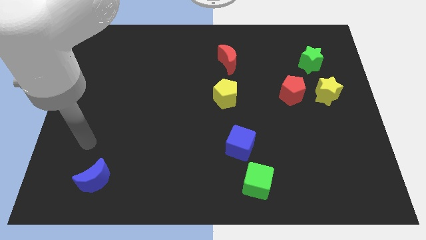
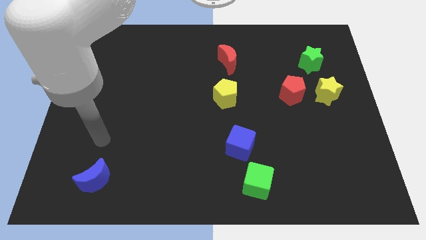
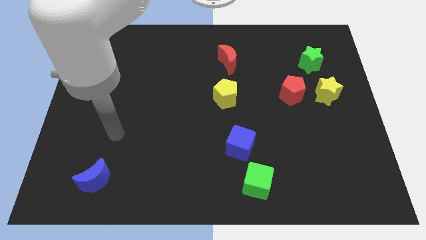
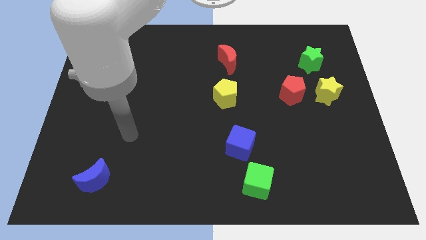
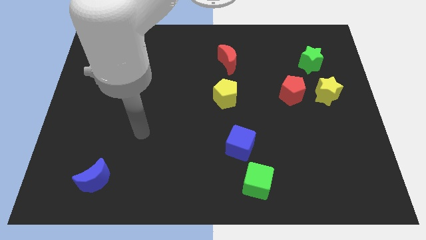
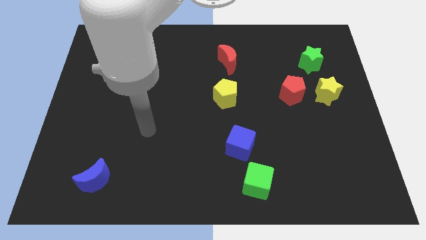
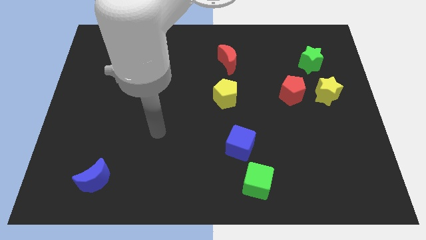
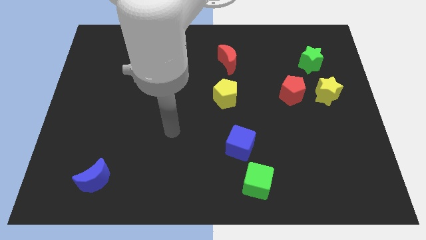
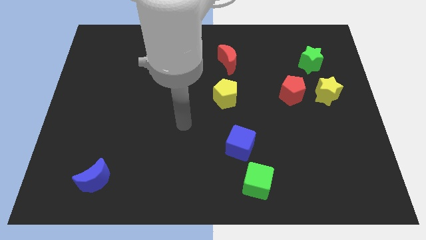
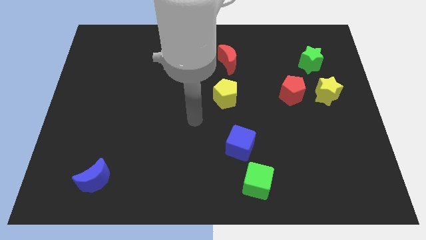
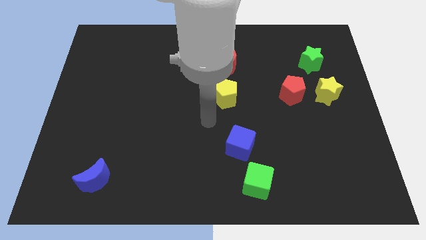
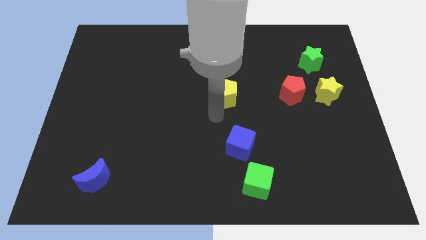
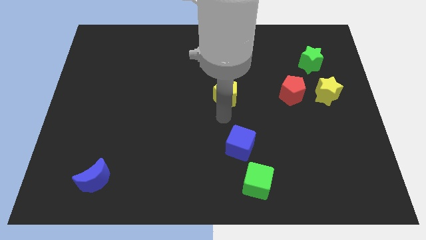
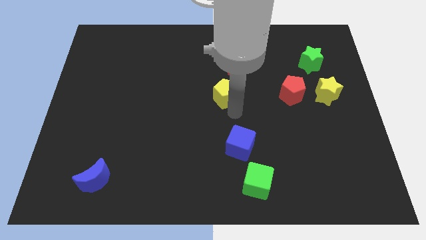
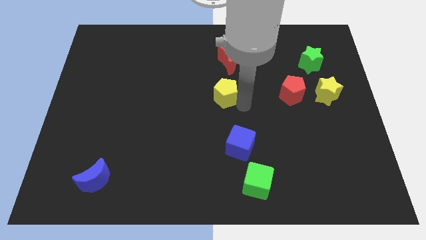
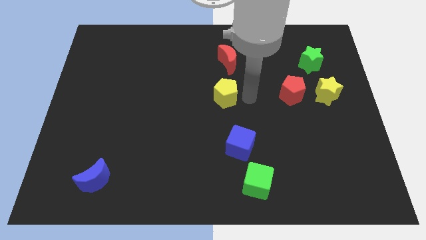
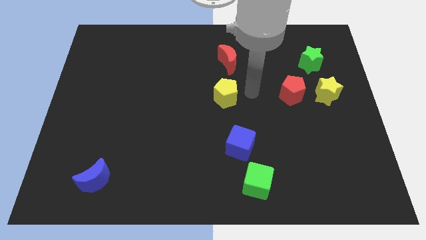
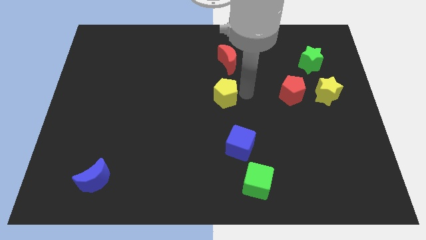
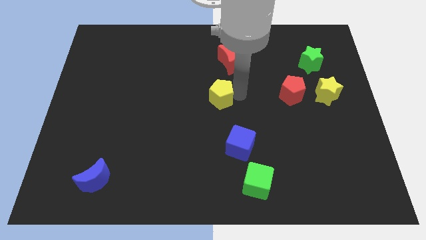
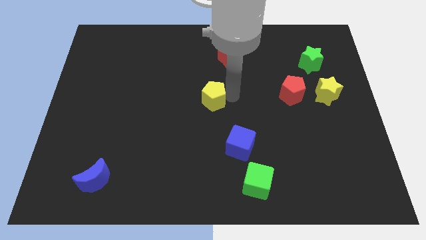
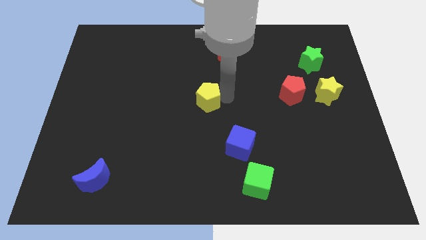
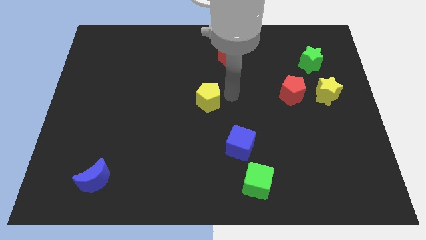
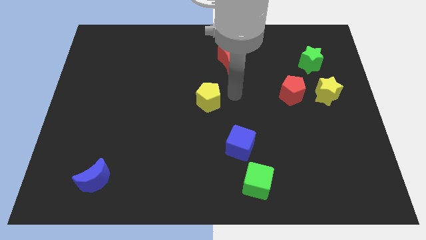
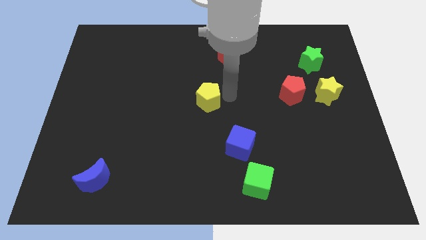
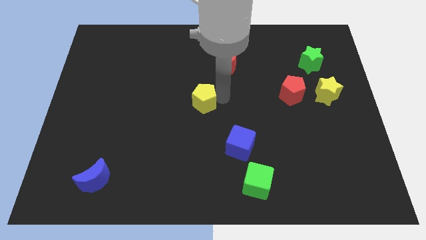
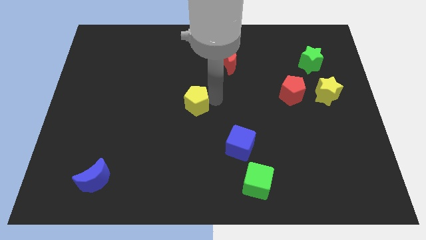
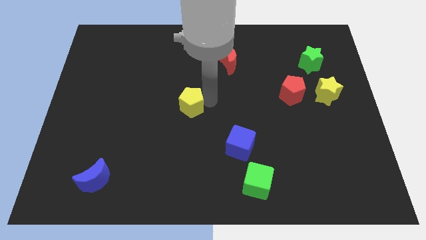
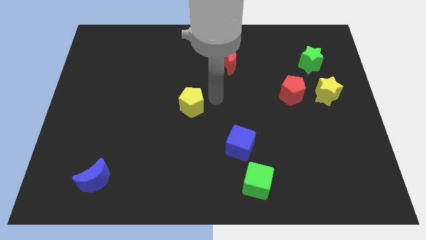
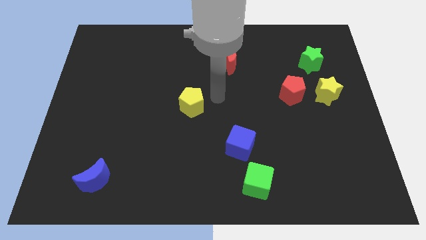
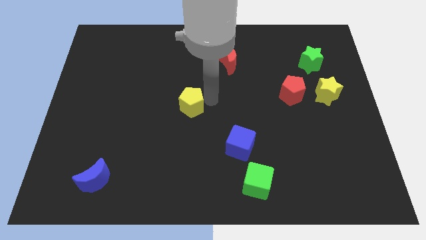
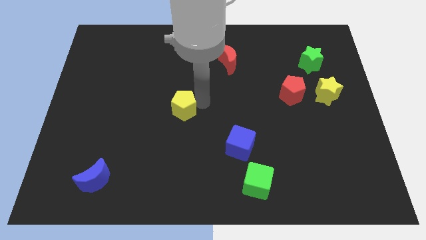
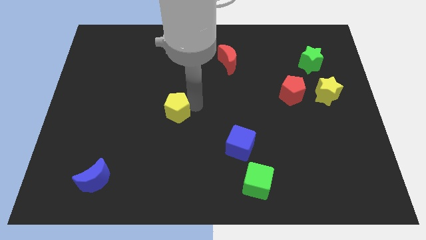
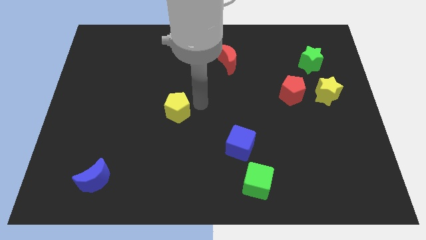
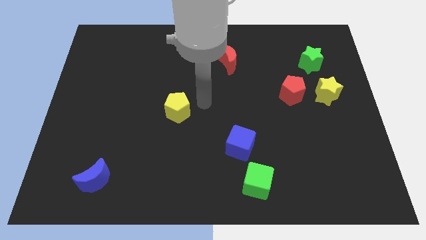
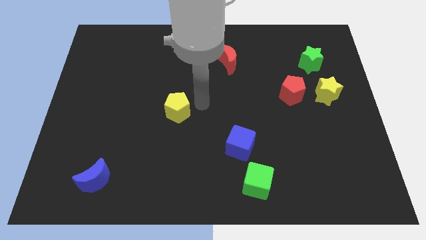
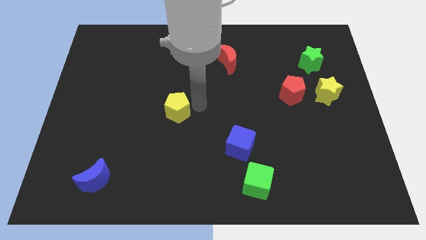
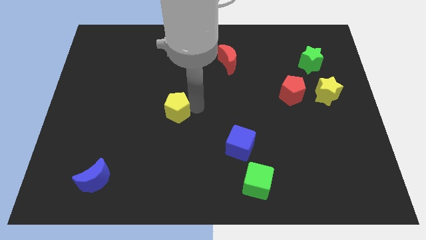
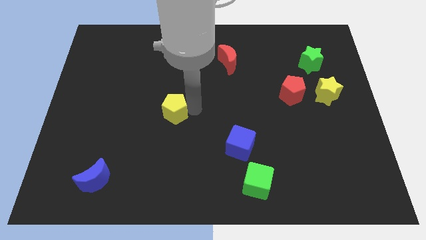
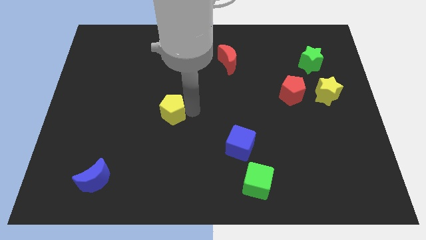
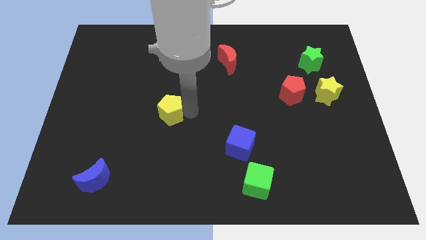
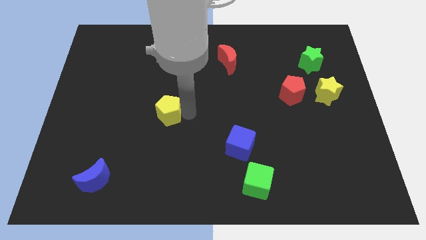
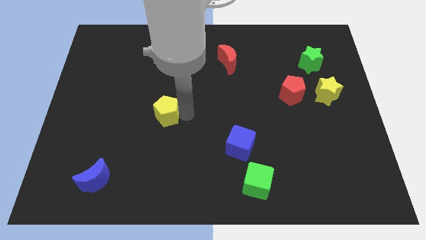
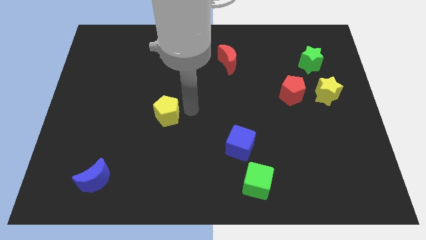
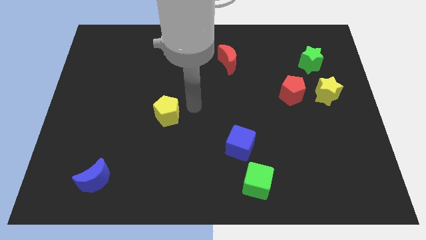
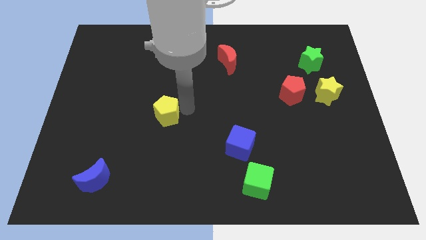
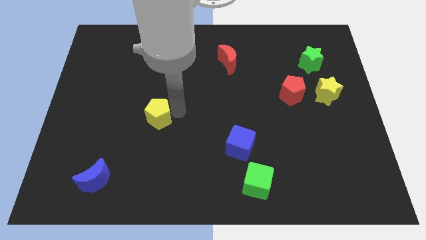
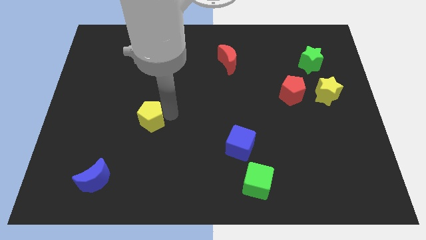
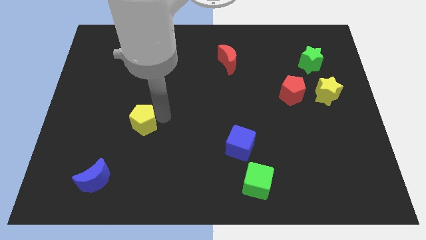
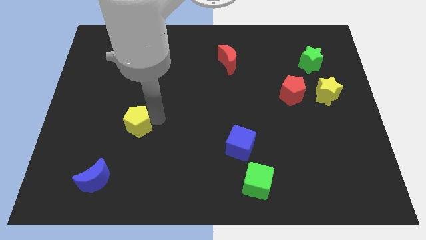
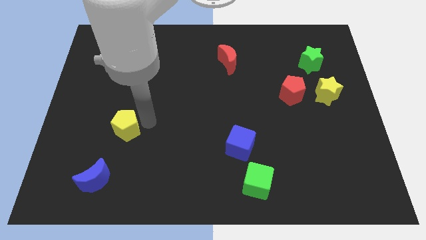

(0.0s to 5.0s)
move the yellow pentagon to the top of the blue moon

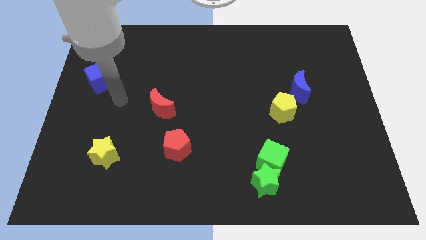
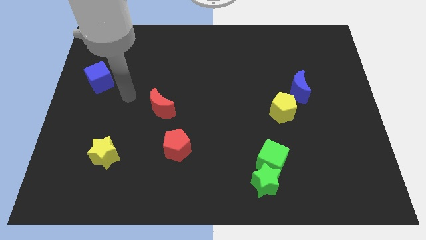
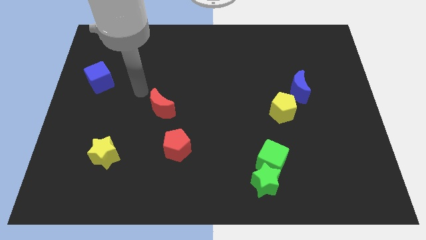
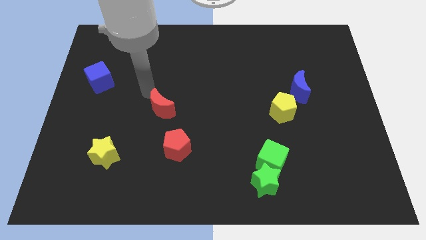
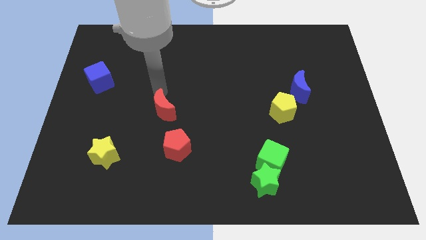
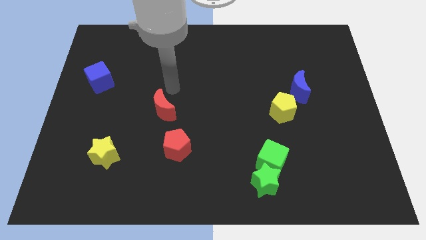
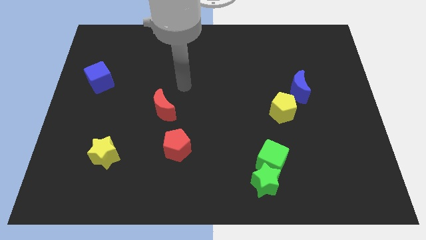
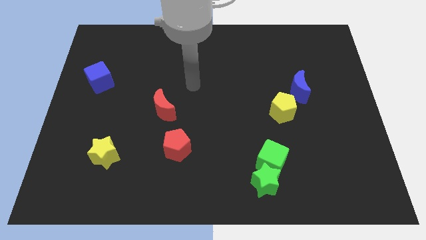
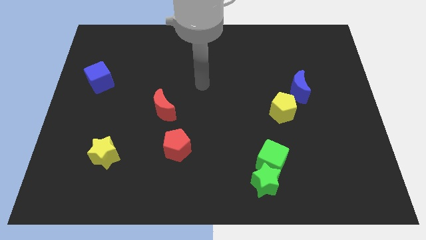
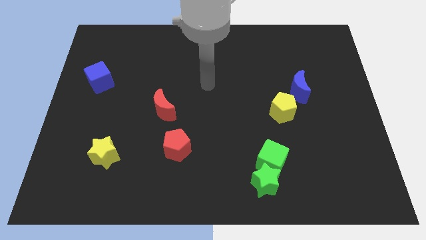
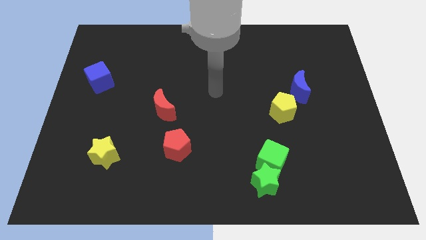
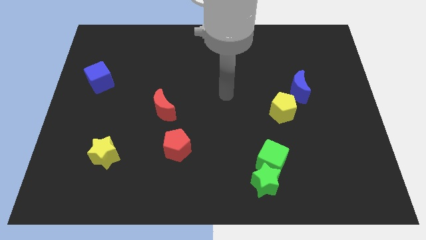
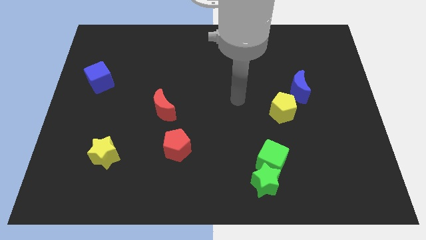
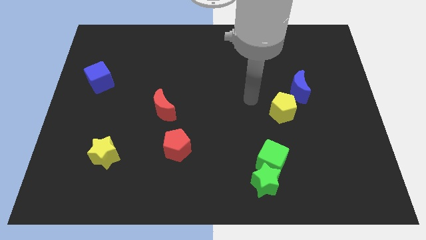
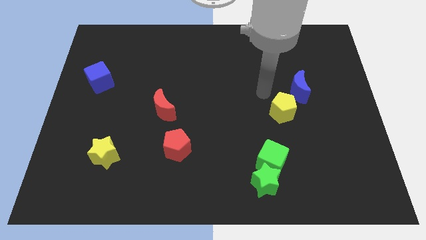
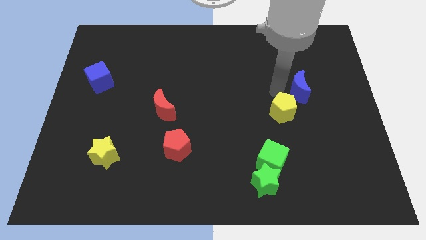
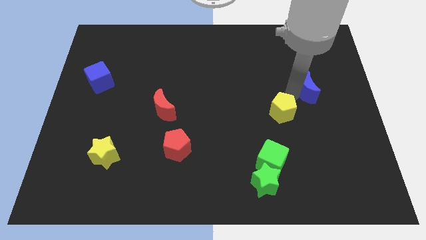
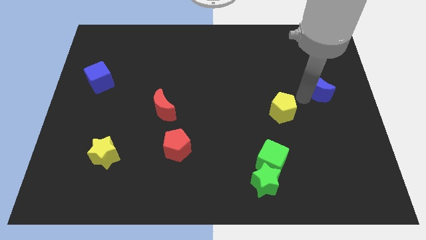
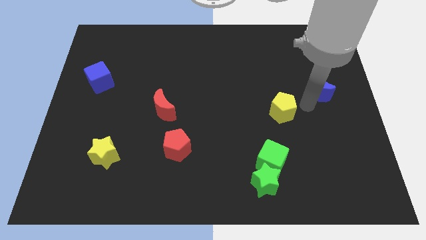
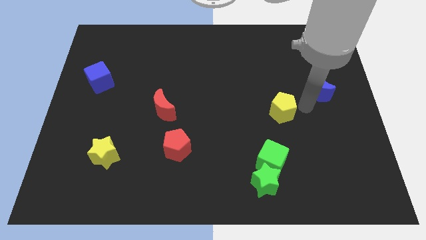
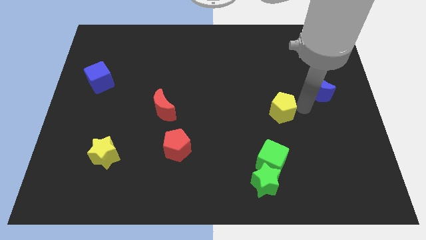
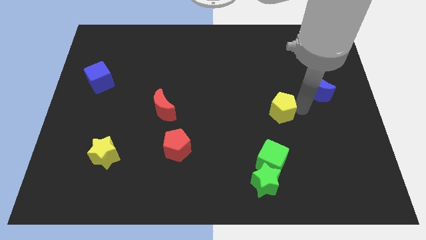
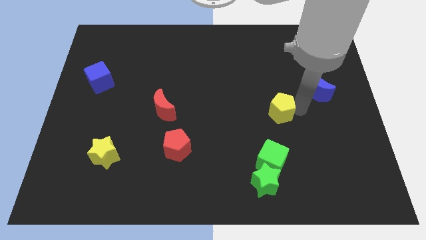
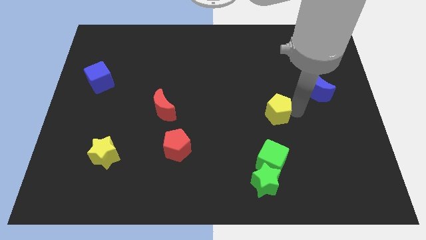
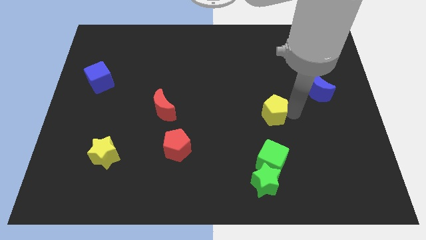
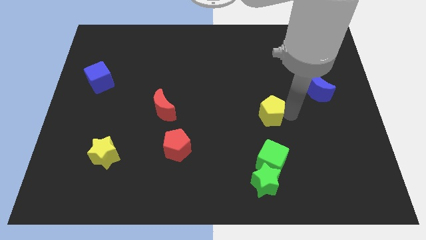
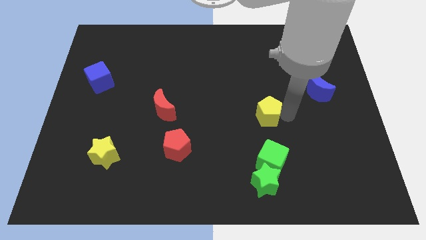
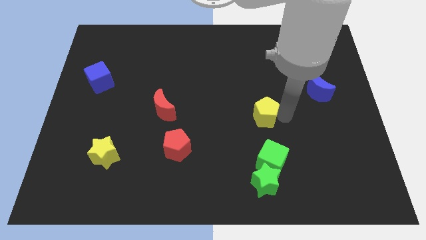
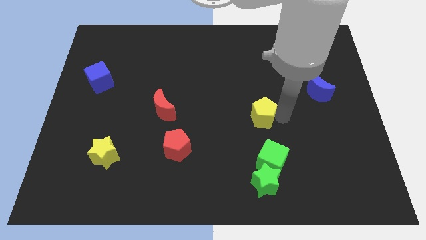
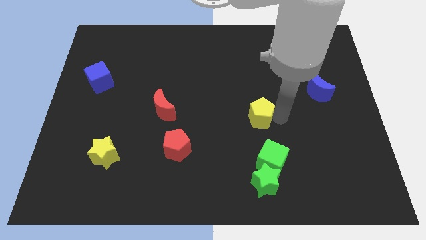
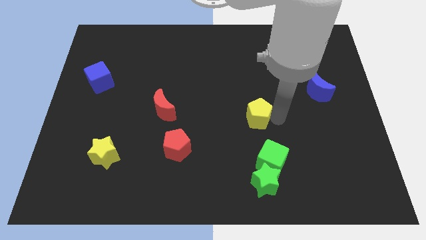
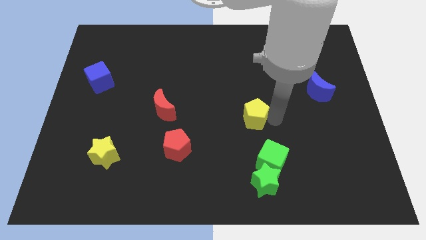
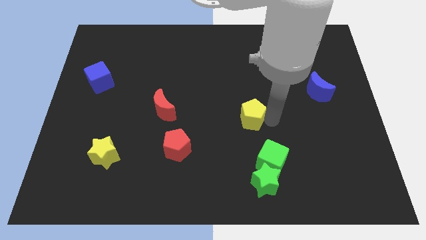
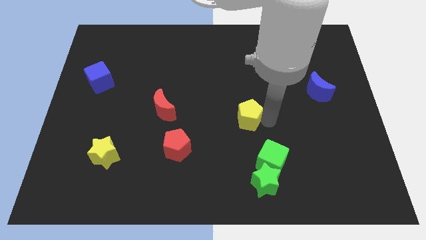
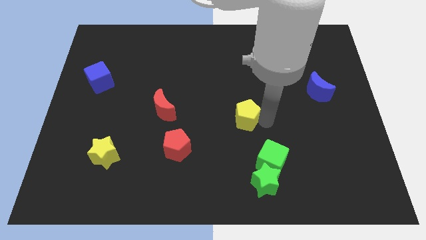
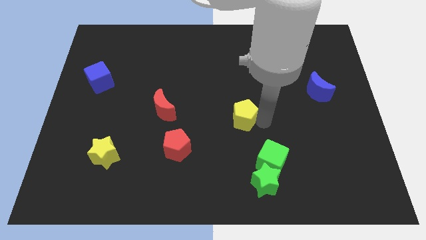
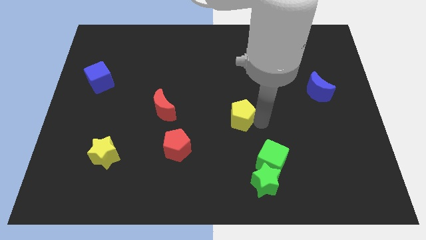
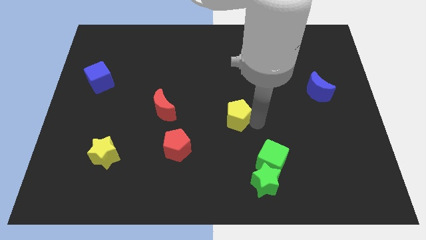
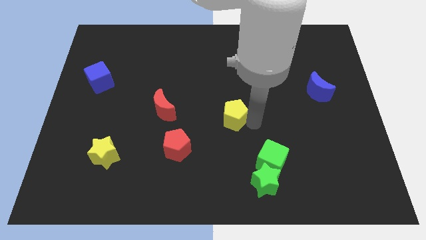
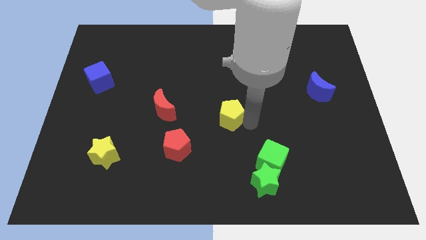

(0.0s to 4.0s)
put the yellow pentagon to the right of the red moon
